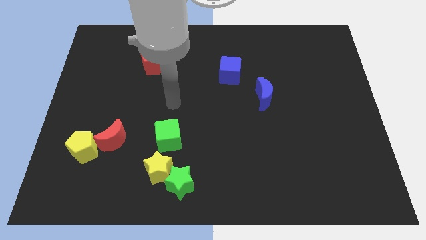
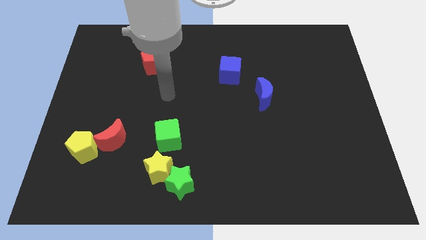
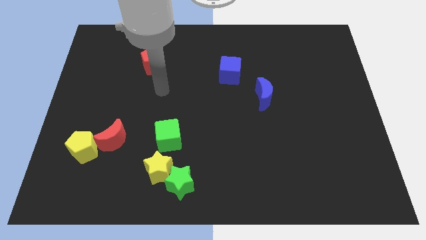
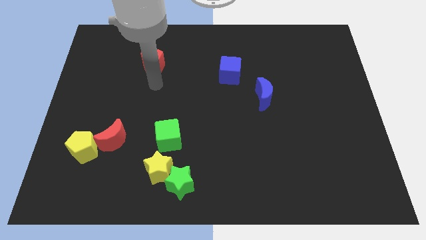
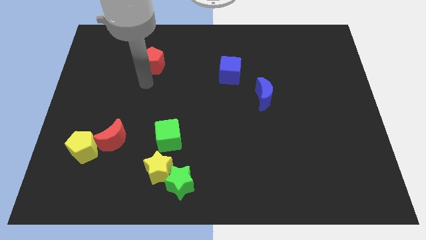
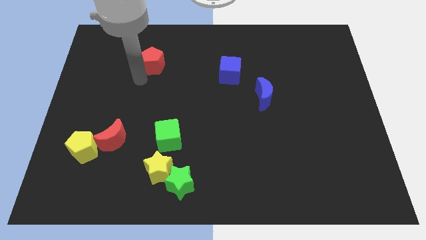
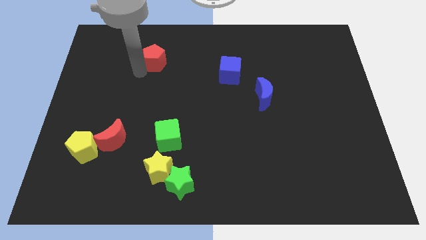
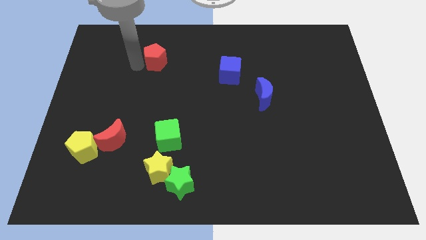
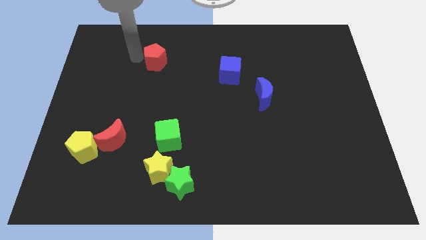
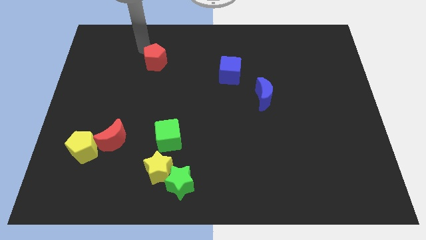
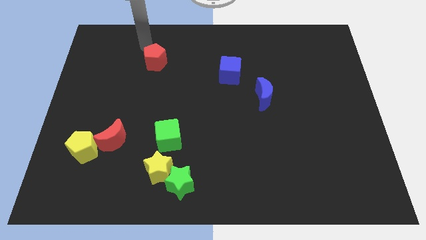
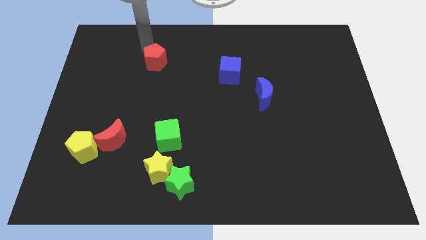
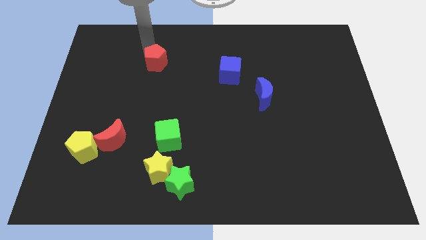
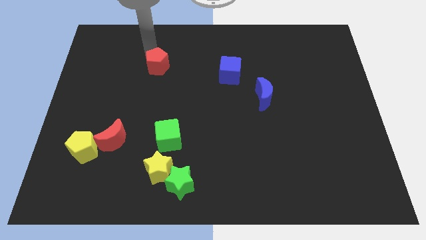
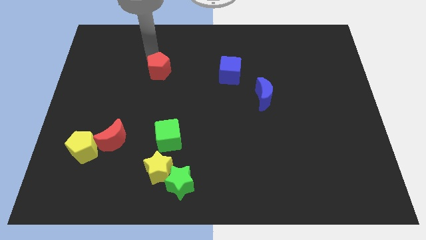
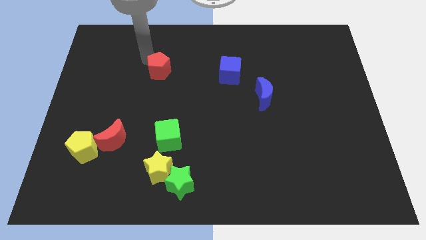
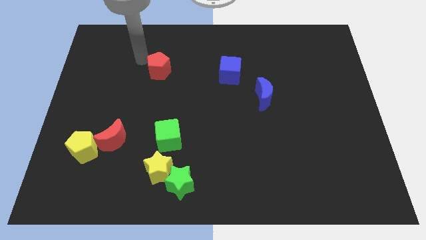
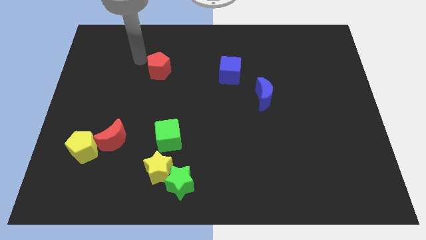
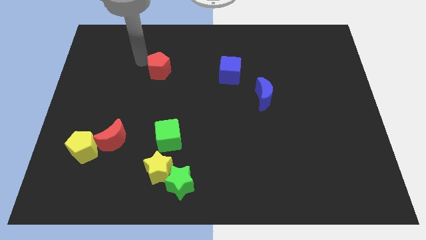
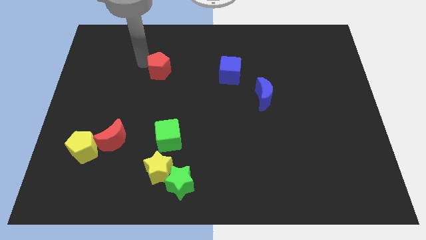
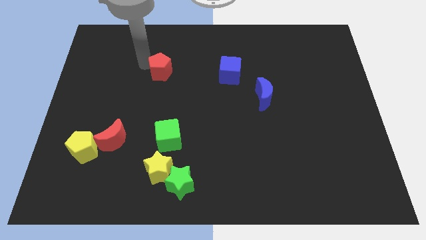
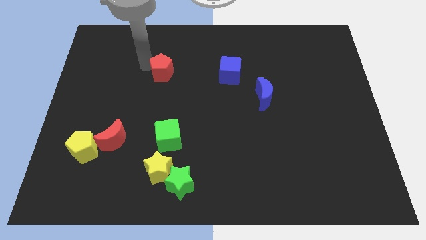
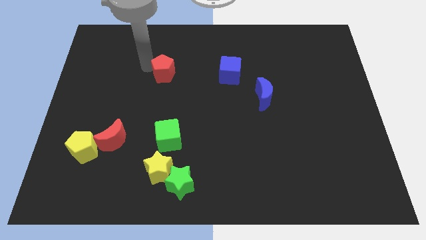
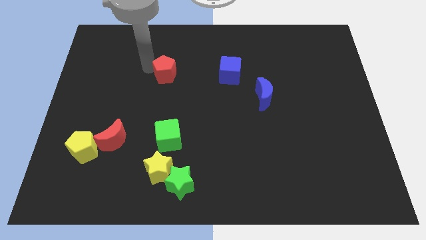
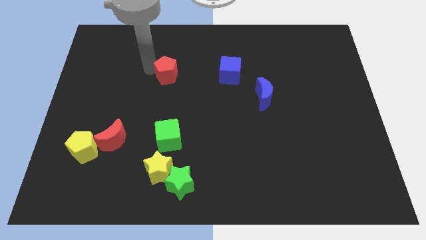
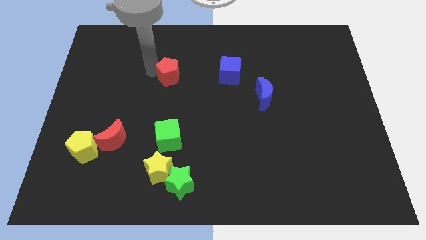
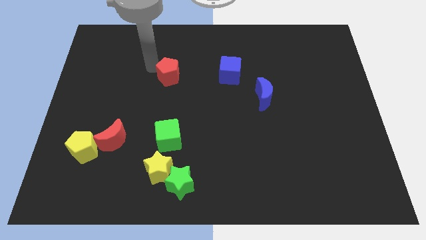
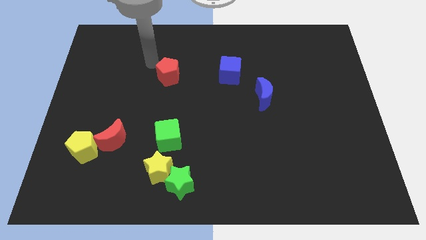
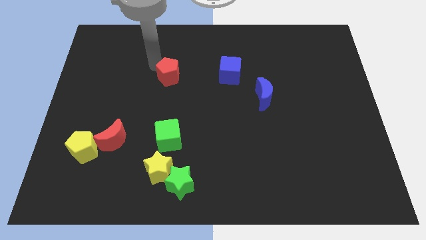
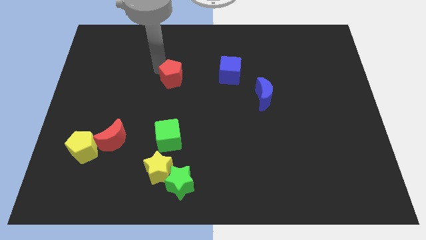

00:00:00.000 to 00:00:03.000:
slightly slide the red pentagon diagonally downwards and right

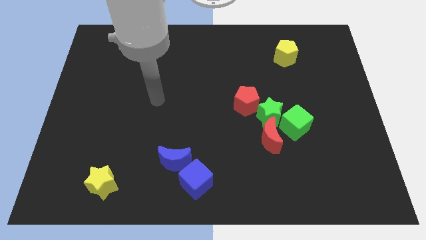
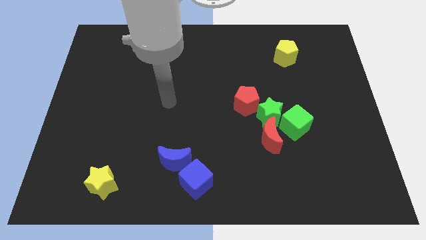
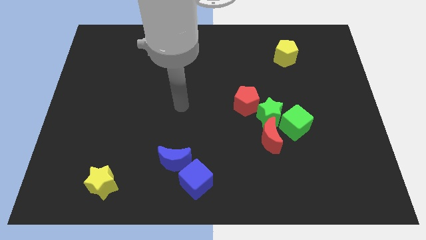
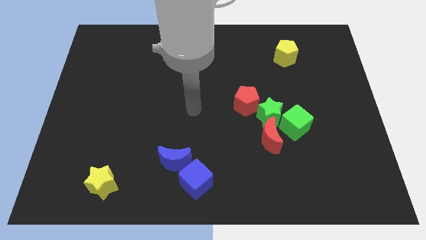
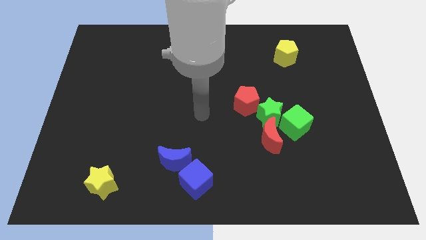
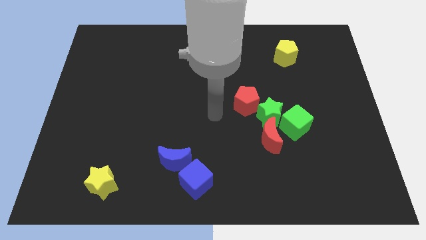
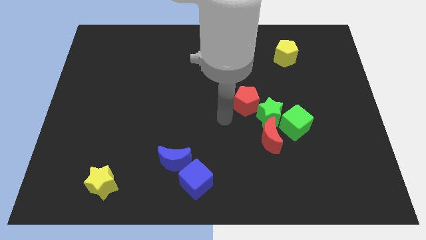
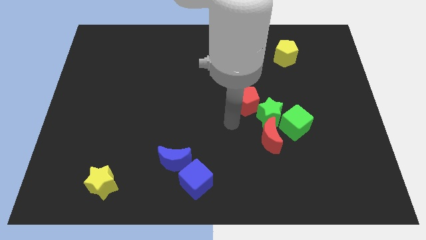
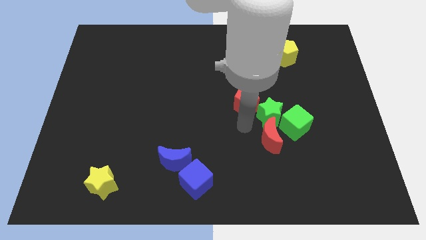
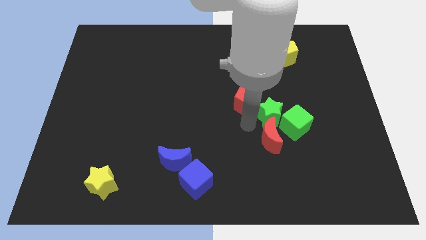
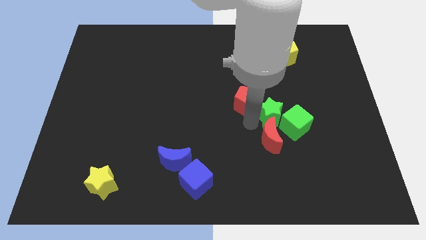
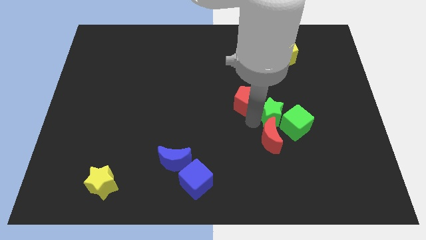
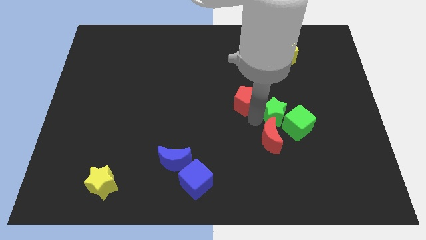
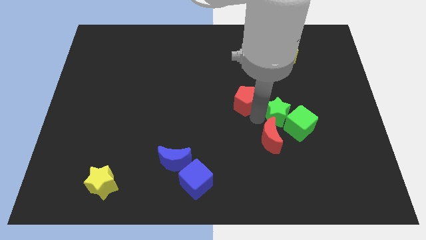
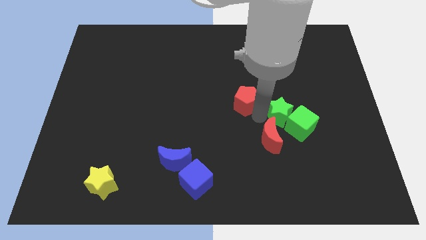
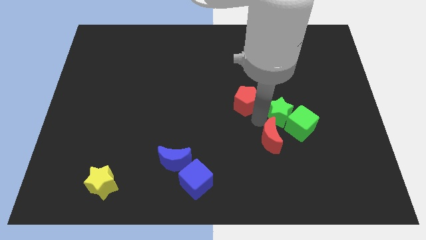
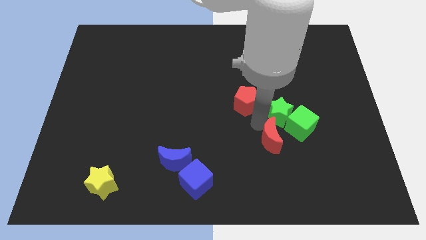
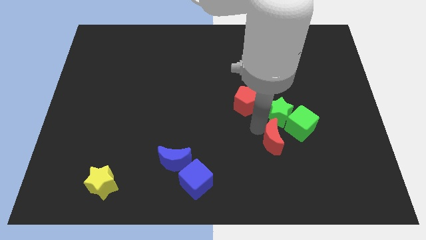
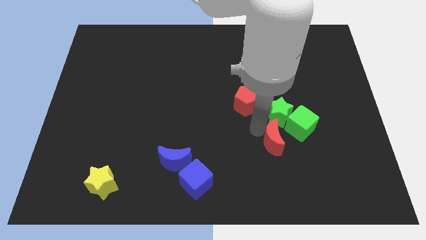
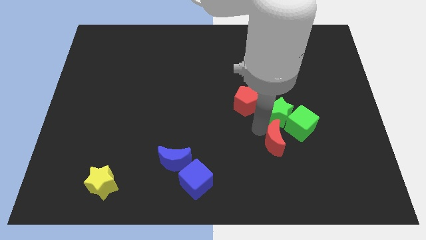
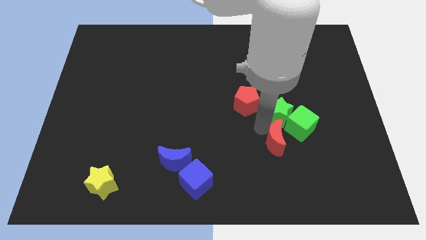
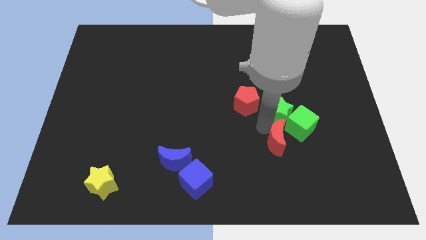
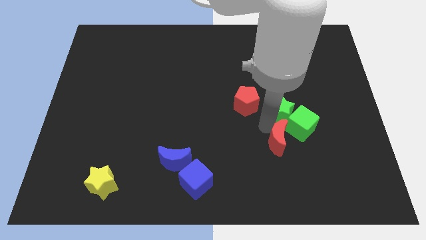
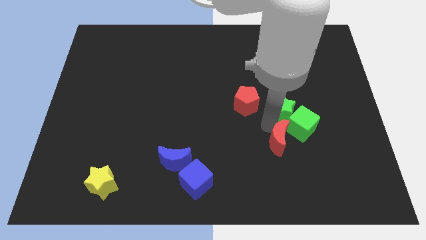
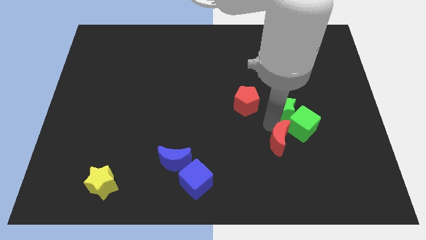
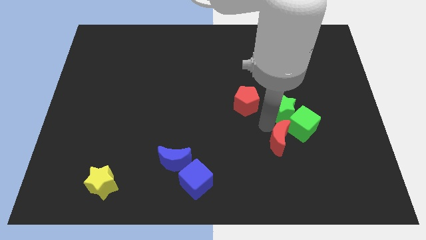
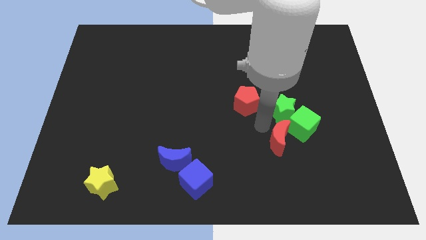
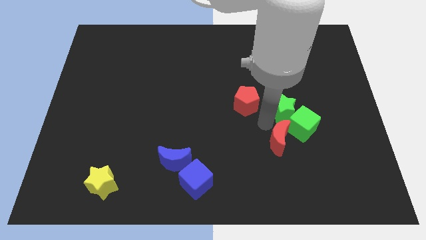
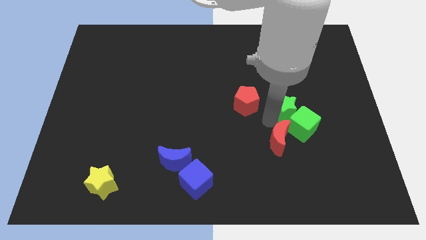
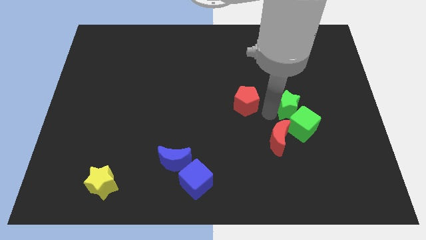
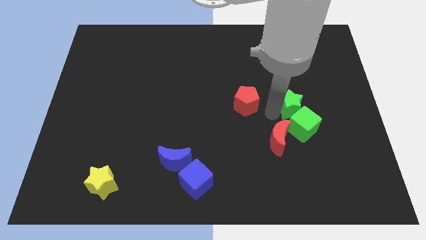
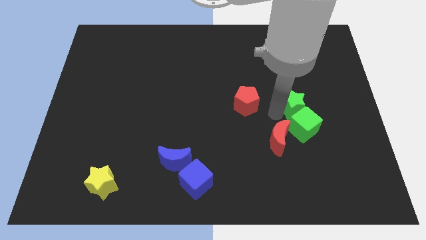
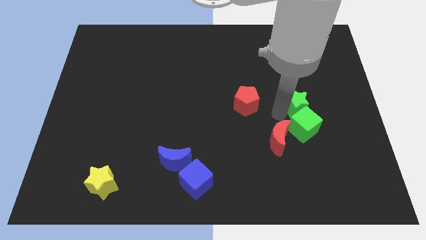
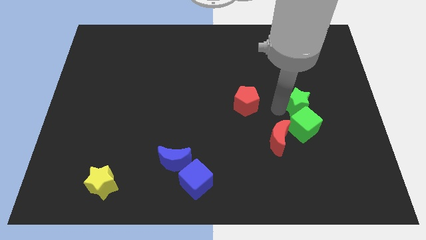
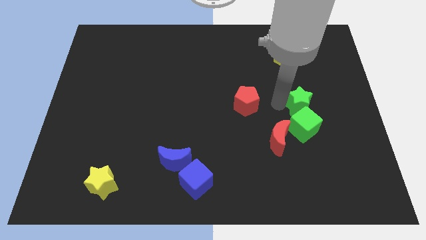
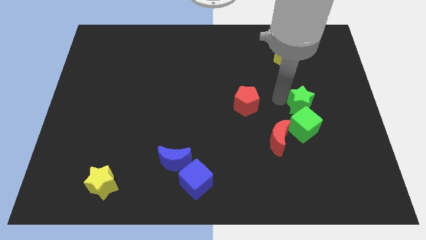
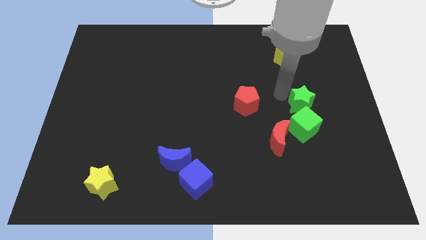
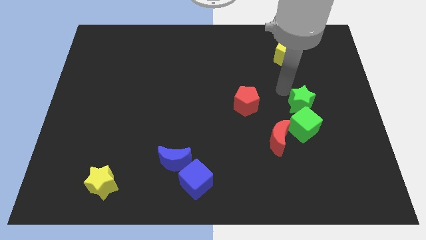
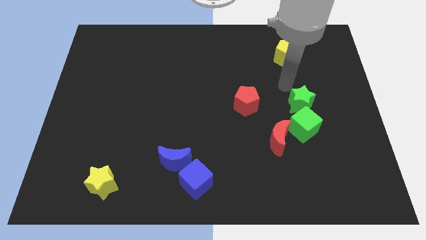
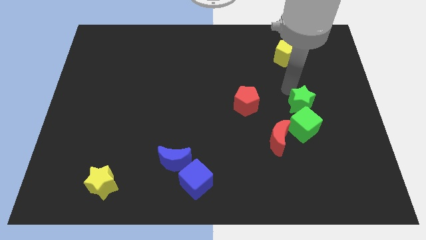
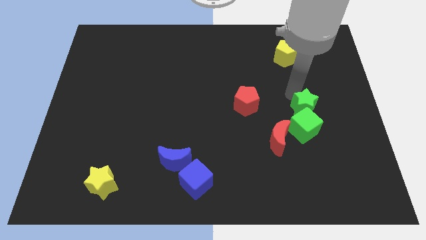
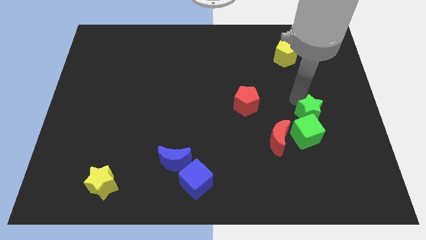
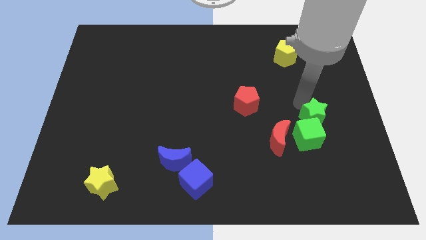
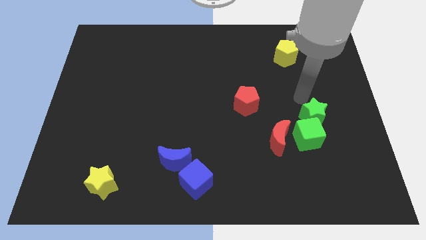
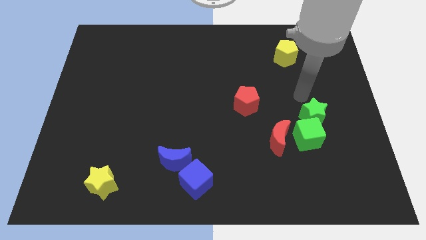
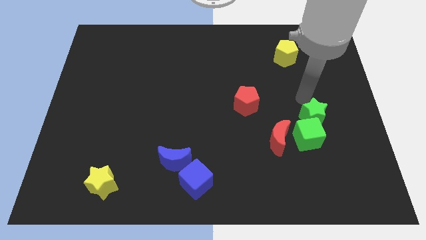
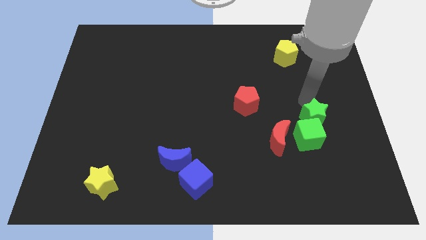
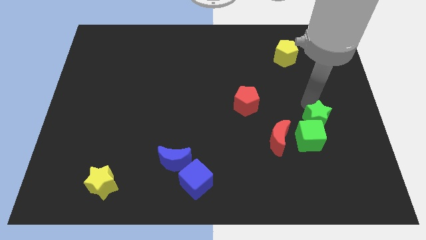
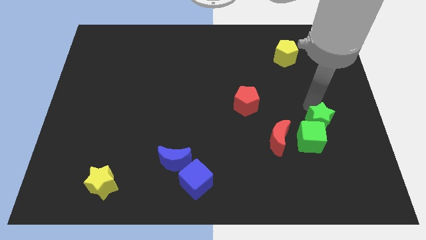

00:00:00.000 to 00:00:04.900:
push the green star down and right diagonally somewhat

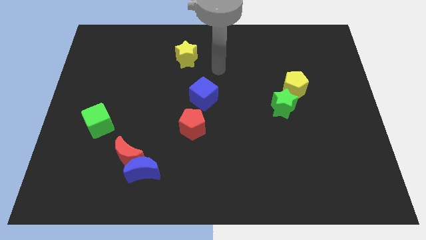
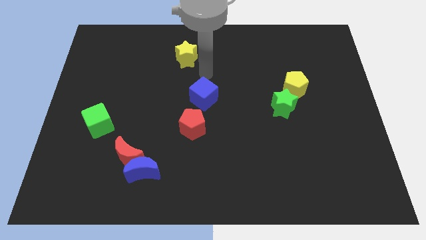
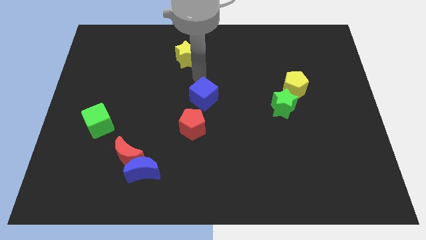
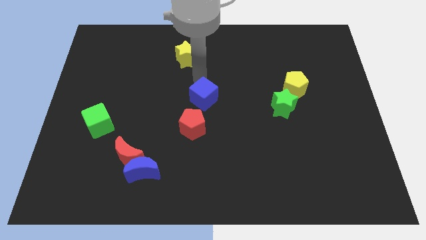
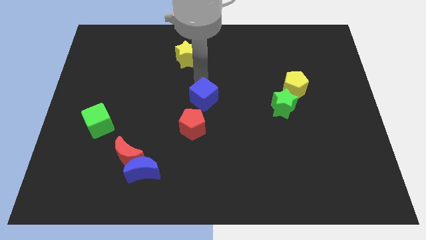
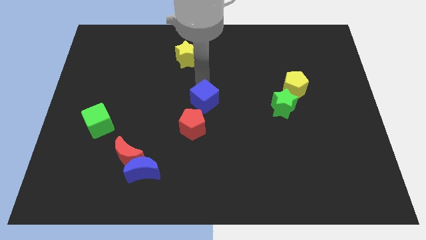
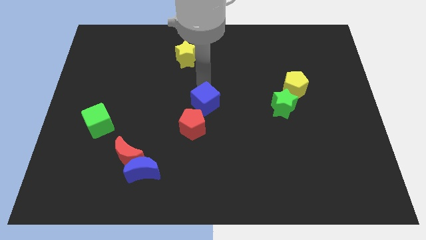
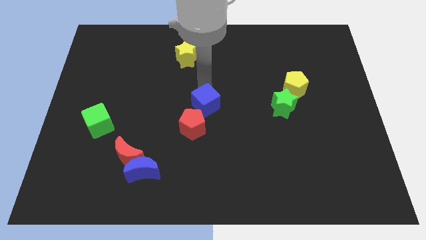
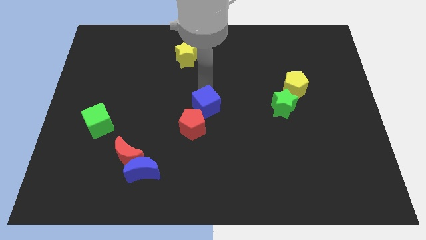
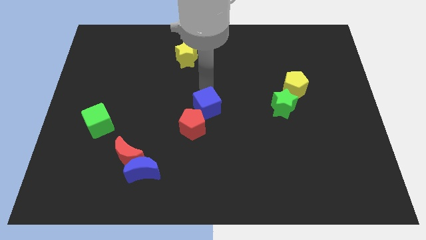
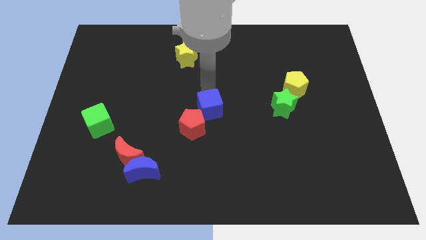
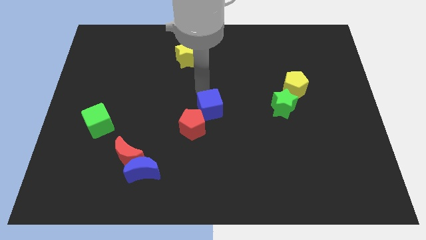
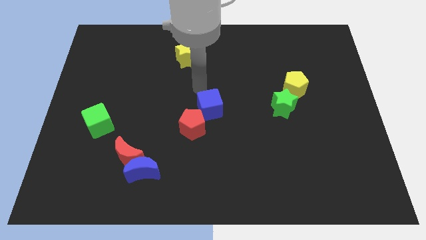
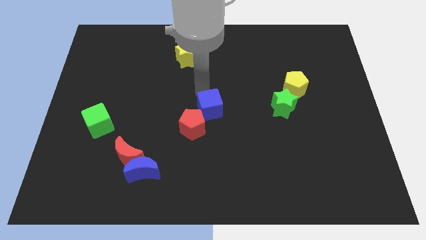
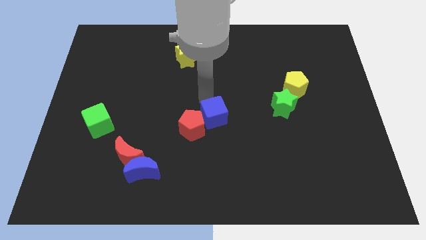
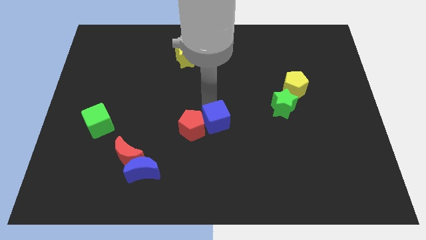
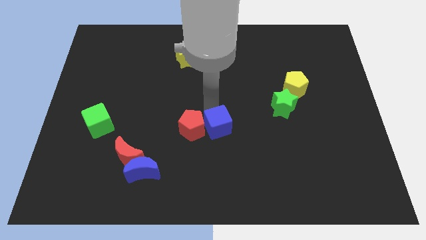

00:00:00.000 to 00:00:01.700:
slightly push the blue cube downwards
